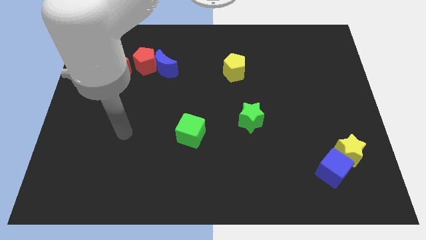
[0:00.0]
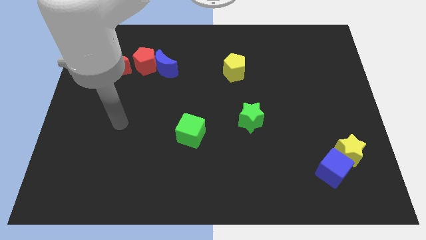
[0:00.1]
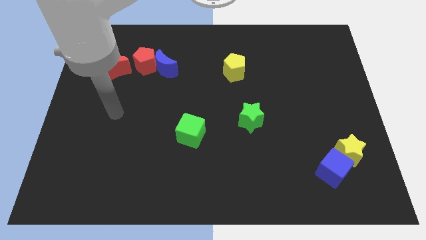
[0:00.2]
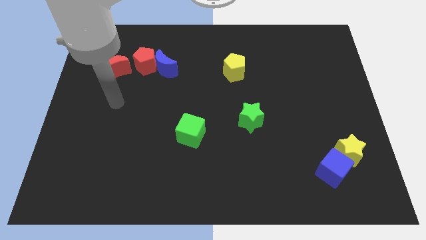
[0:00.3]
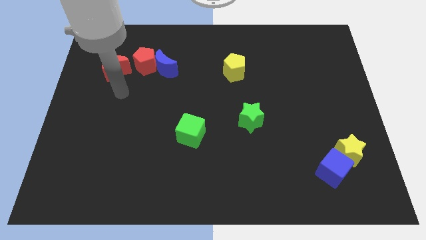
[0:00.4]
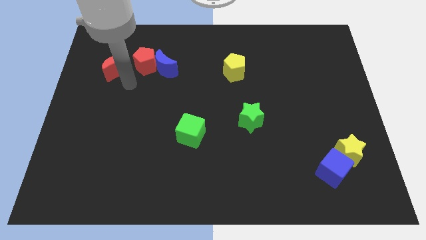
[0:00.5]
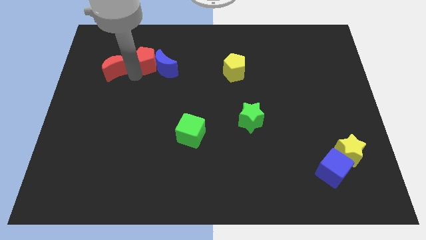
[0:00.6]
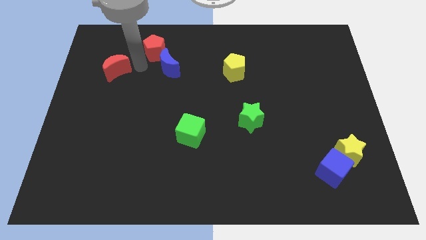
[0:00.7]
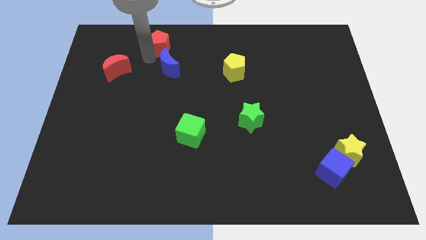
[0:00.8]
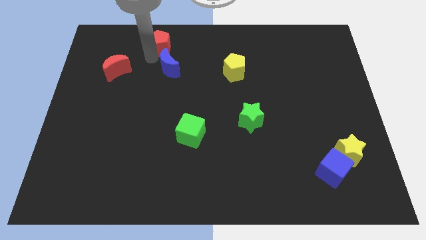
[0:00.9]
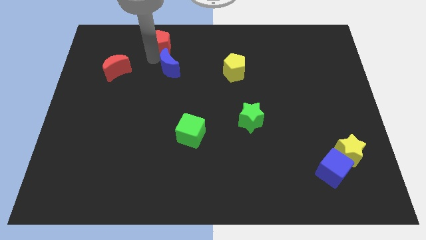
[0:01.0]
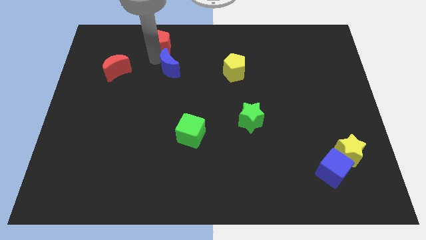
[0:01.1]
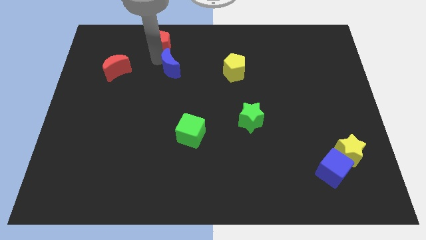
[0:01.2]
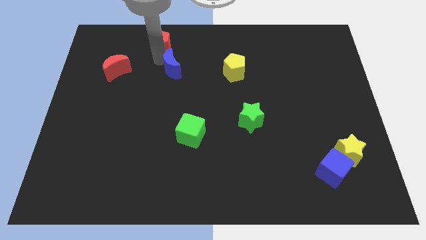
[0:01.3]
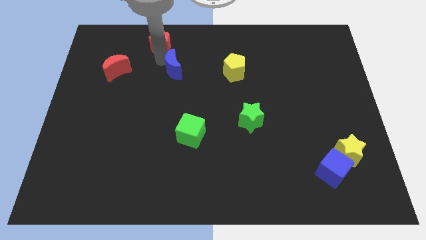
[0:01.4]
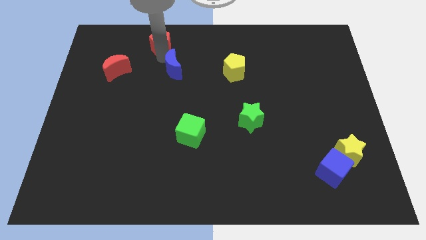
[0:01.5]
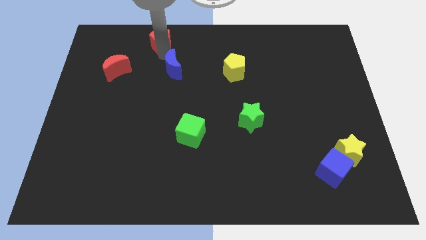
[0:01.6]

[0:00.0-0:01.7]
pull the blue moon apart from the red pentagon

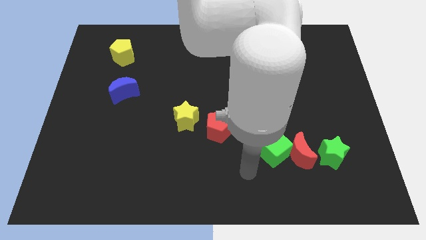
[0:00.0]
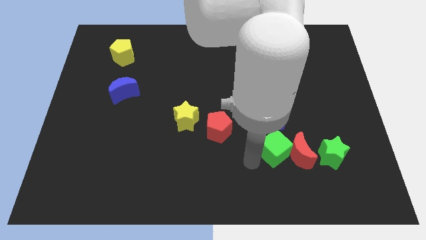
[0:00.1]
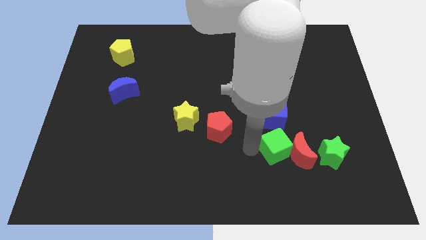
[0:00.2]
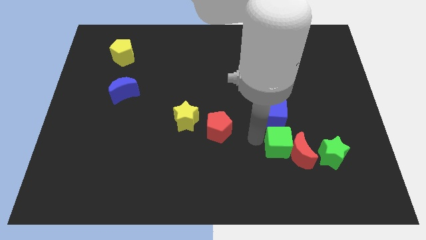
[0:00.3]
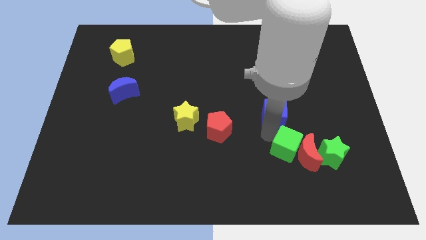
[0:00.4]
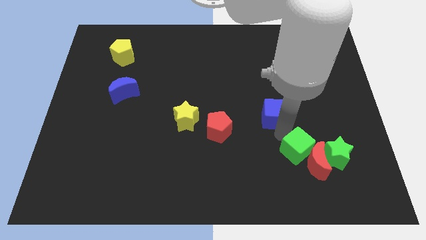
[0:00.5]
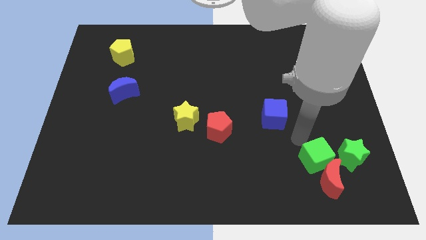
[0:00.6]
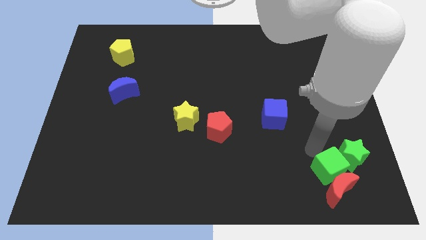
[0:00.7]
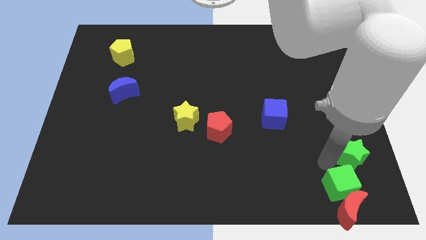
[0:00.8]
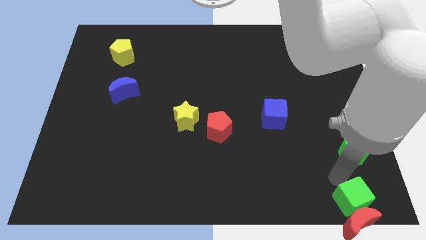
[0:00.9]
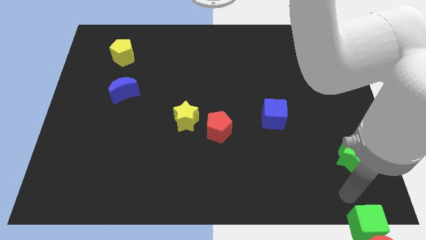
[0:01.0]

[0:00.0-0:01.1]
move the red moon away from the green cube and green star

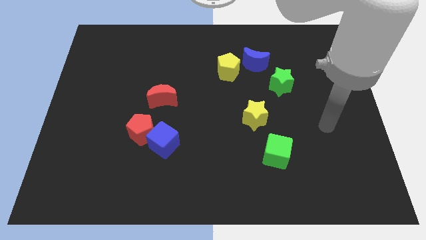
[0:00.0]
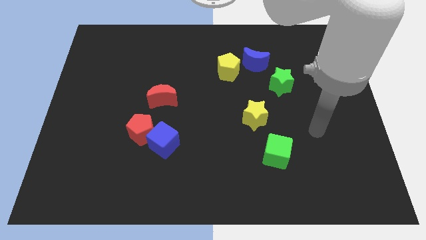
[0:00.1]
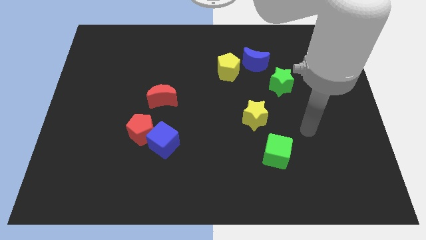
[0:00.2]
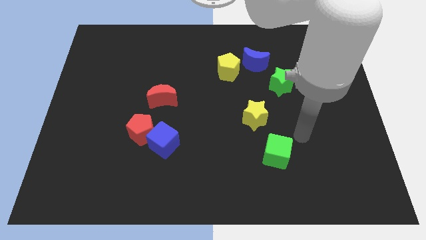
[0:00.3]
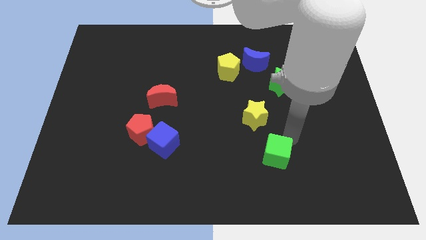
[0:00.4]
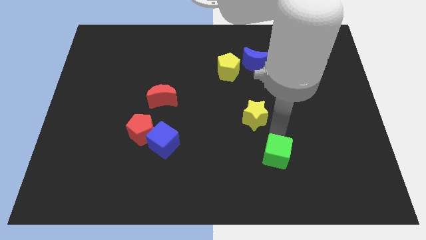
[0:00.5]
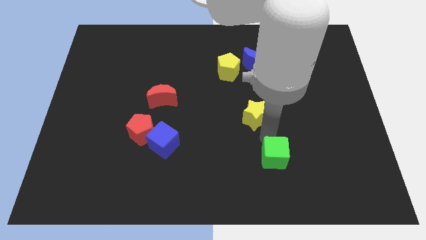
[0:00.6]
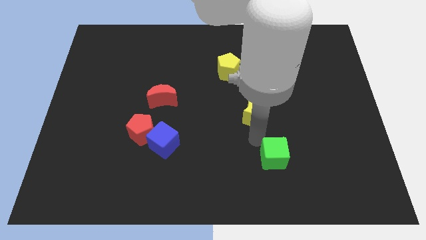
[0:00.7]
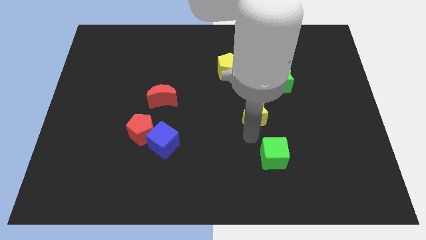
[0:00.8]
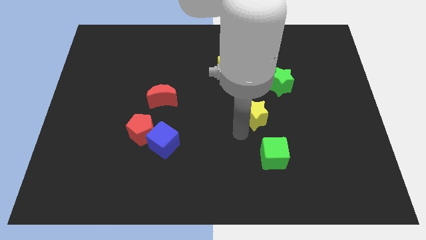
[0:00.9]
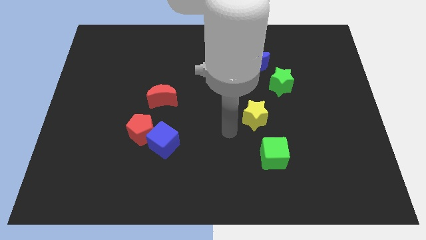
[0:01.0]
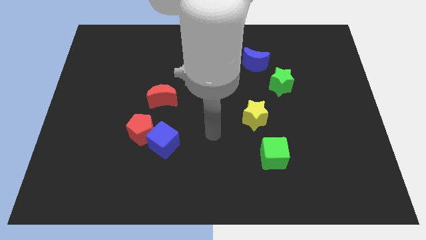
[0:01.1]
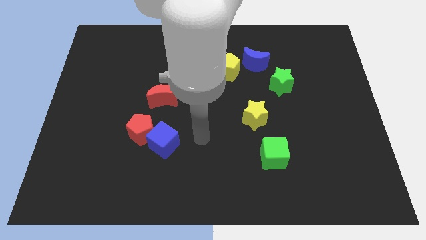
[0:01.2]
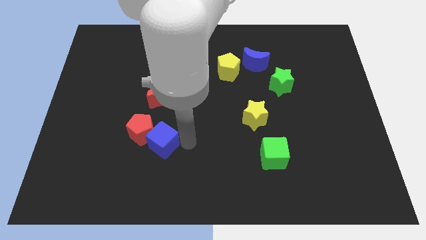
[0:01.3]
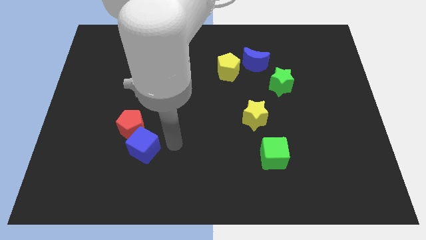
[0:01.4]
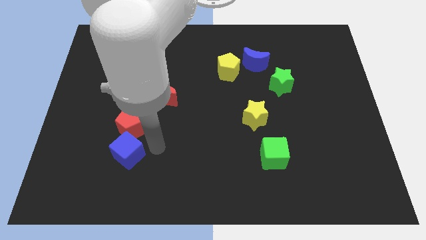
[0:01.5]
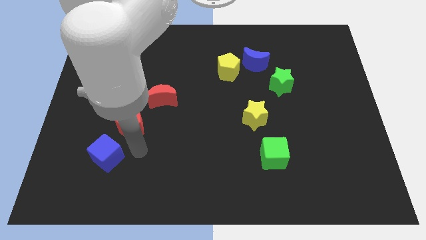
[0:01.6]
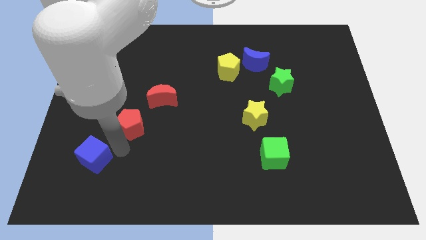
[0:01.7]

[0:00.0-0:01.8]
separate the red pentagon from the blue cube

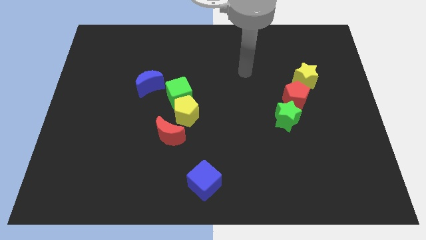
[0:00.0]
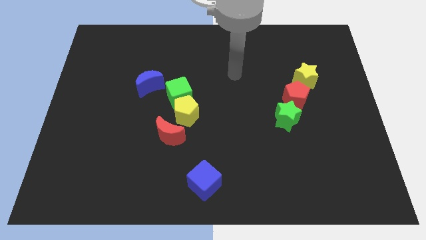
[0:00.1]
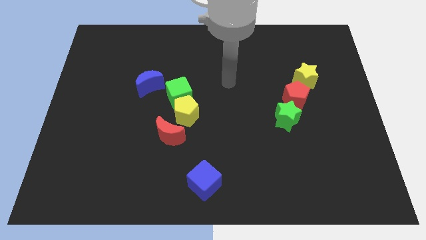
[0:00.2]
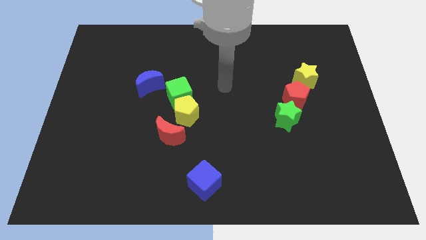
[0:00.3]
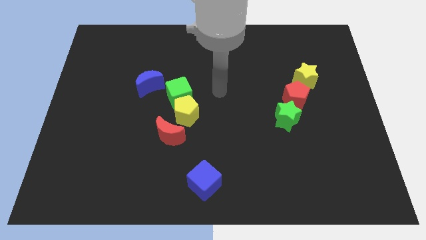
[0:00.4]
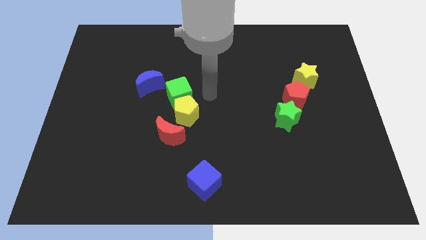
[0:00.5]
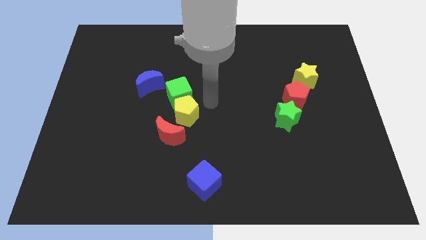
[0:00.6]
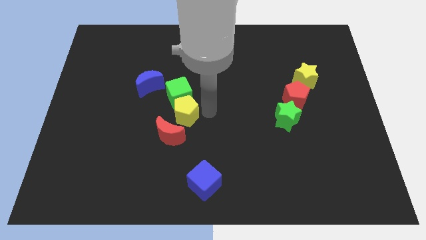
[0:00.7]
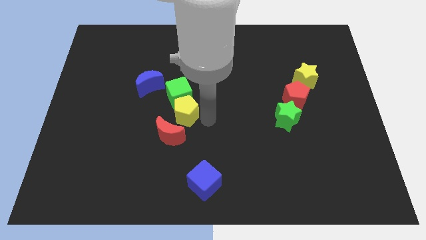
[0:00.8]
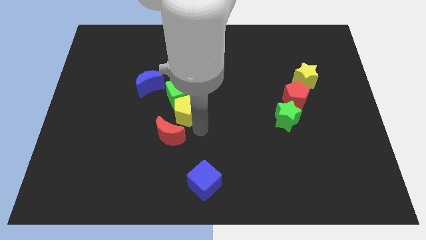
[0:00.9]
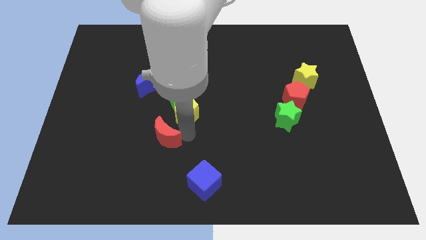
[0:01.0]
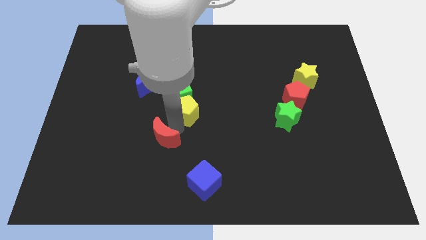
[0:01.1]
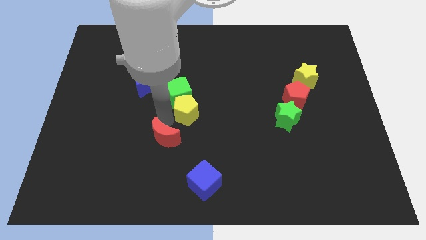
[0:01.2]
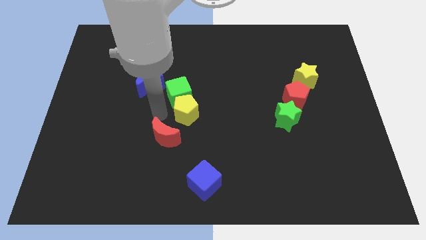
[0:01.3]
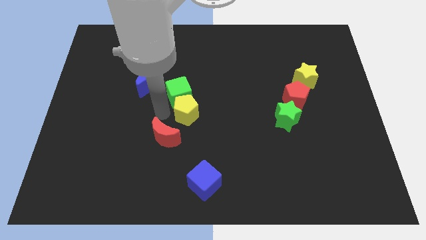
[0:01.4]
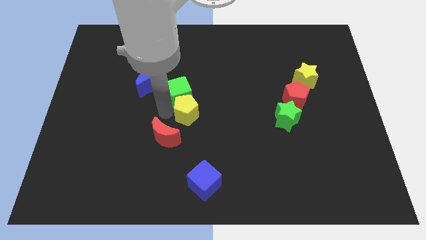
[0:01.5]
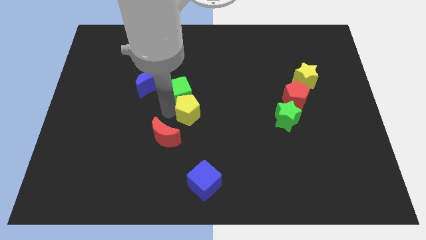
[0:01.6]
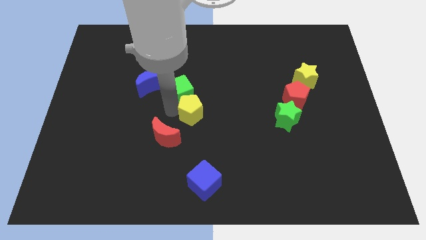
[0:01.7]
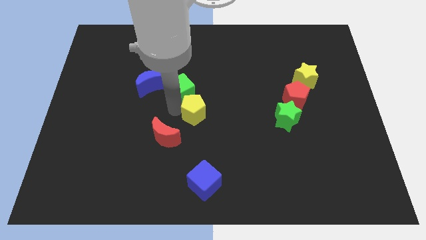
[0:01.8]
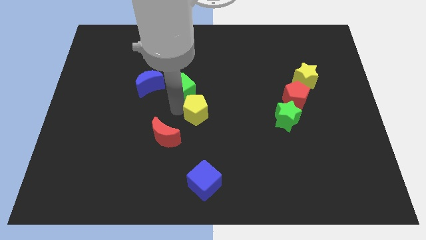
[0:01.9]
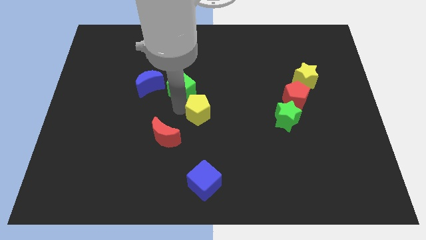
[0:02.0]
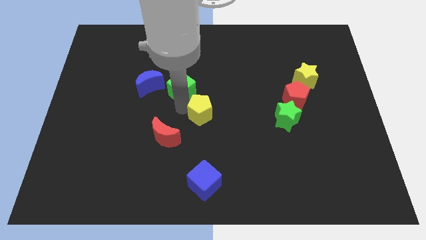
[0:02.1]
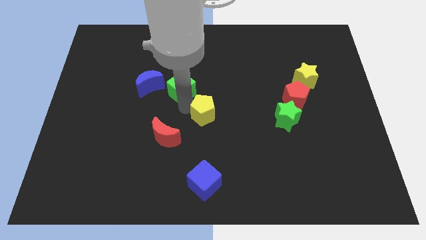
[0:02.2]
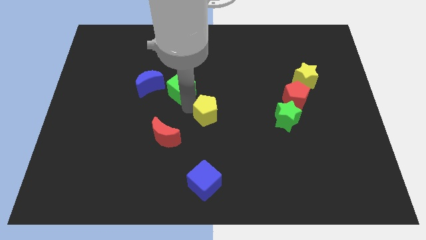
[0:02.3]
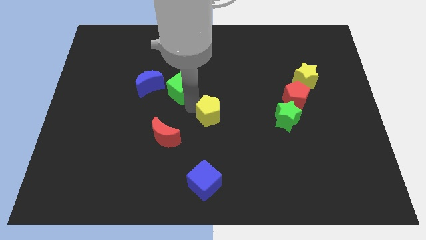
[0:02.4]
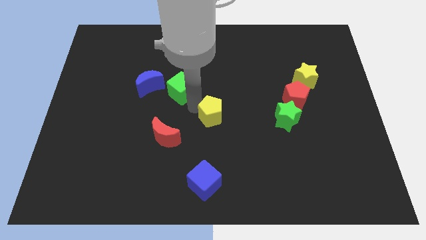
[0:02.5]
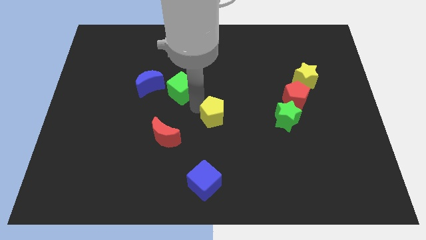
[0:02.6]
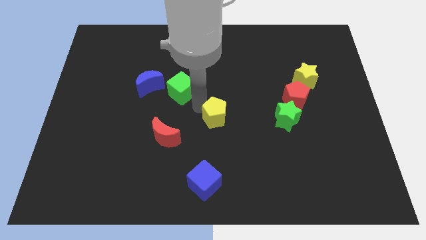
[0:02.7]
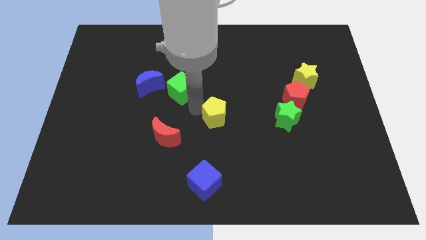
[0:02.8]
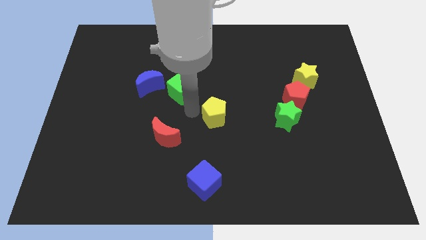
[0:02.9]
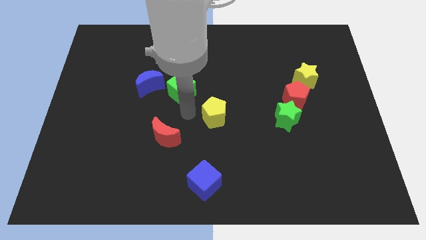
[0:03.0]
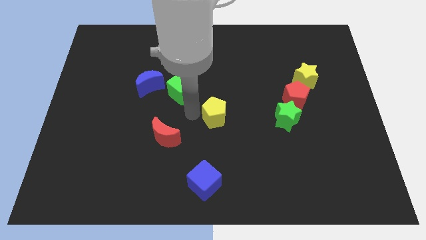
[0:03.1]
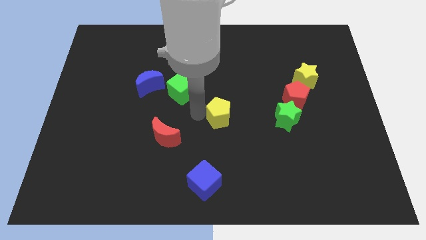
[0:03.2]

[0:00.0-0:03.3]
pull the yellow pentagon apart from the green cube and red moon

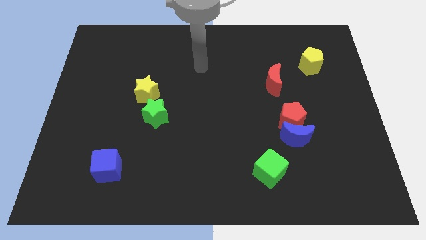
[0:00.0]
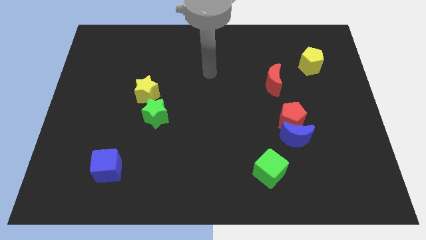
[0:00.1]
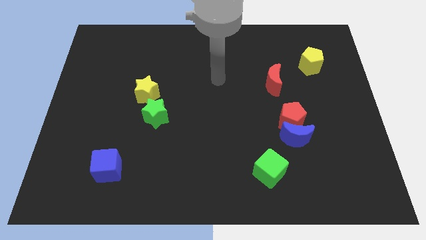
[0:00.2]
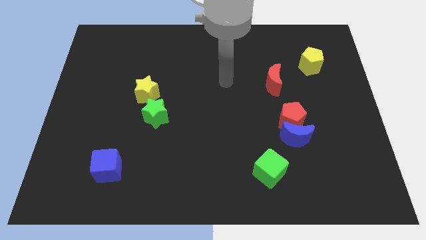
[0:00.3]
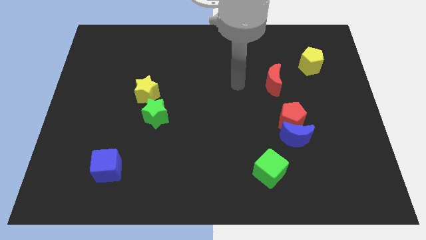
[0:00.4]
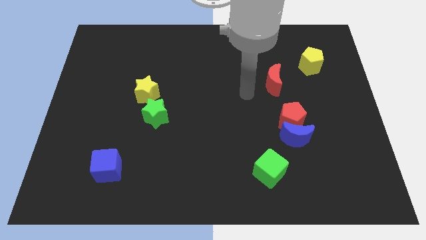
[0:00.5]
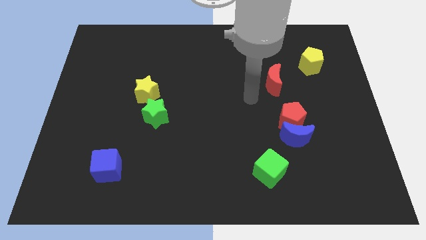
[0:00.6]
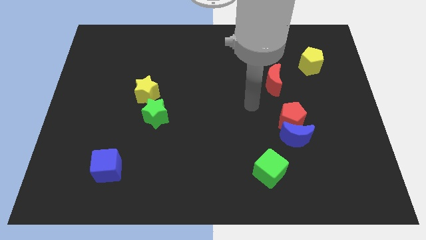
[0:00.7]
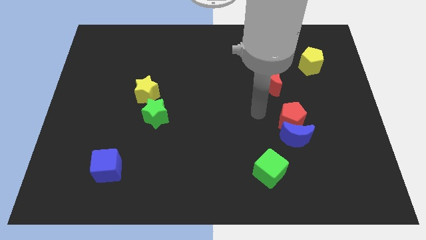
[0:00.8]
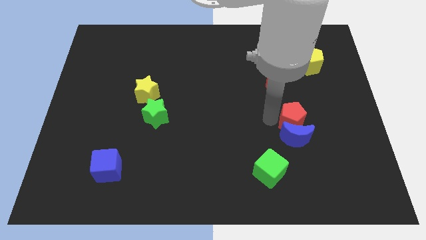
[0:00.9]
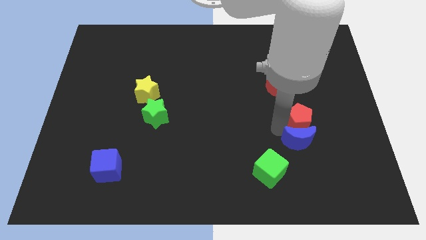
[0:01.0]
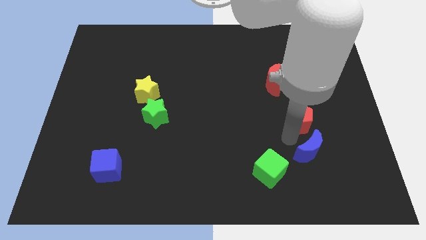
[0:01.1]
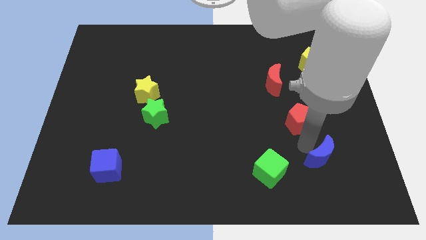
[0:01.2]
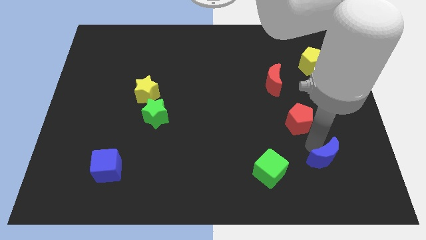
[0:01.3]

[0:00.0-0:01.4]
separate the red pentagon from the blue moon

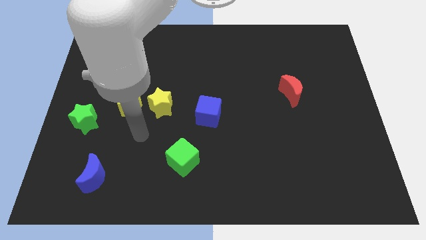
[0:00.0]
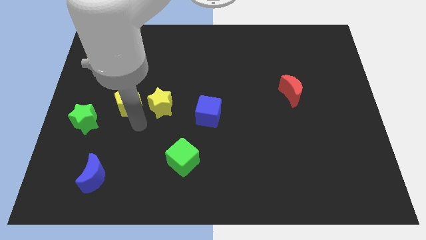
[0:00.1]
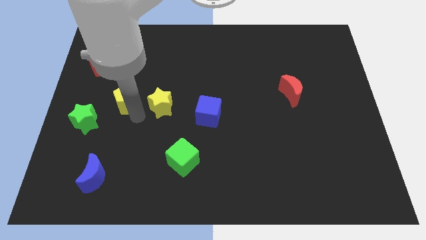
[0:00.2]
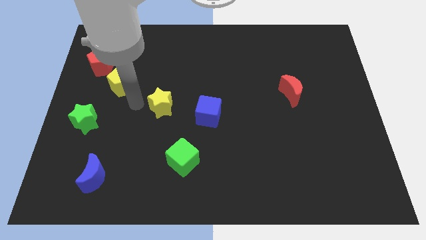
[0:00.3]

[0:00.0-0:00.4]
separate the yellow star from the yellow pentagon
